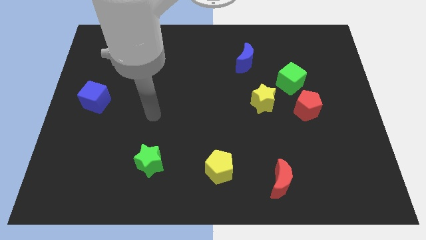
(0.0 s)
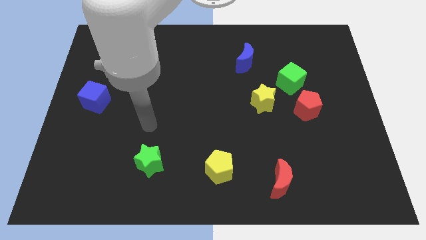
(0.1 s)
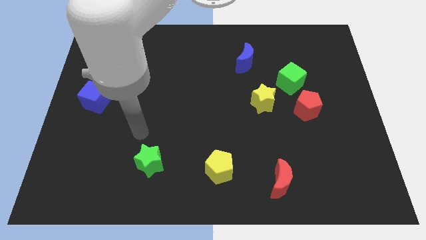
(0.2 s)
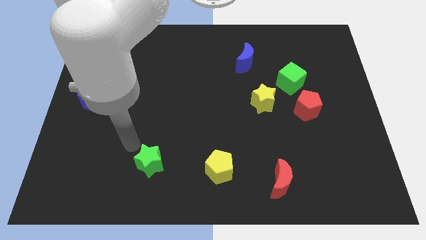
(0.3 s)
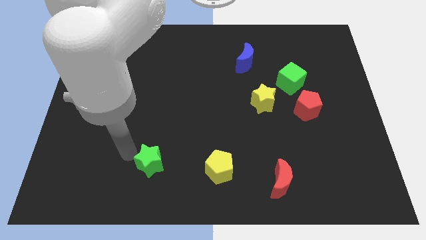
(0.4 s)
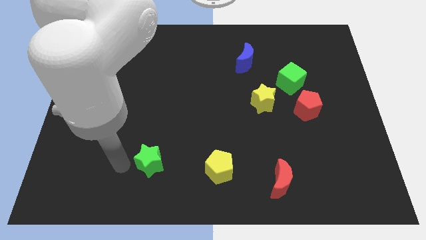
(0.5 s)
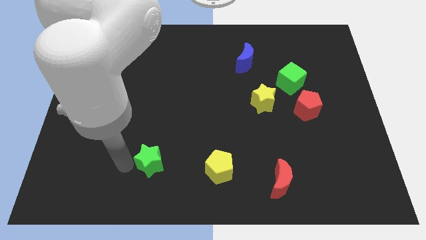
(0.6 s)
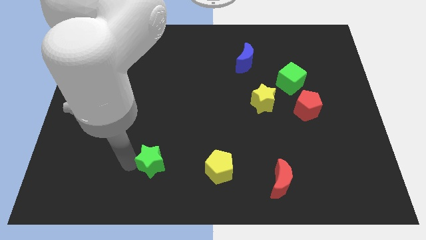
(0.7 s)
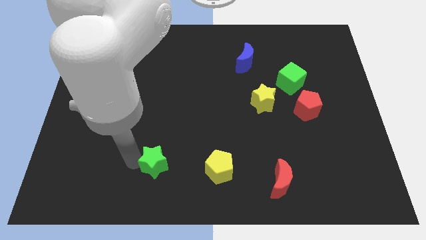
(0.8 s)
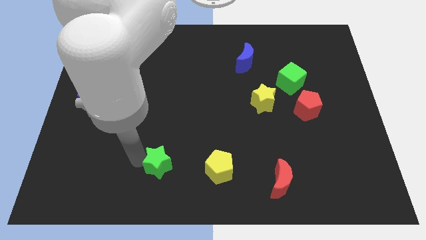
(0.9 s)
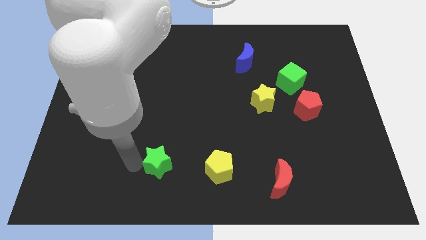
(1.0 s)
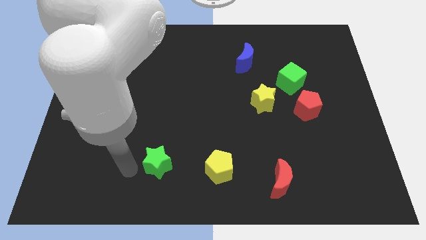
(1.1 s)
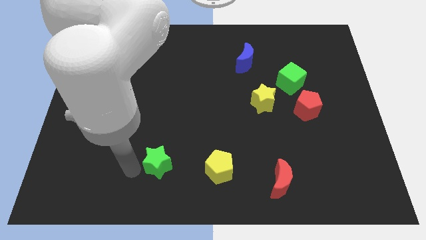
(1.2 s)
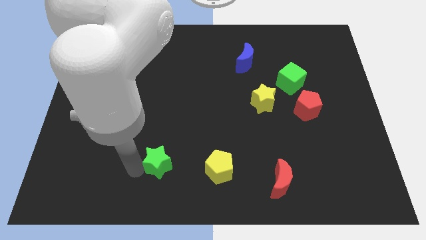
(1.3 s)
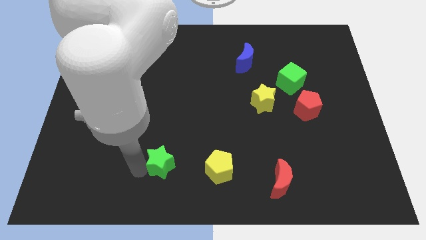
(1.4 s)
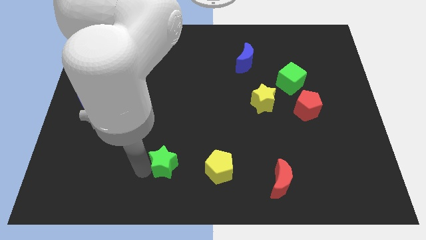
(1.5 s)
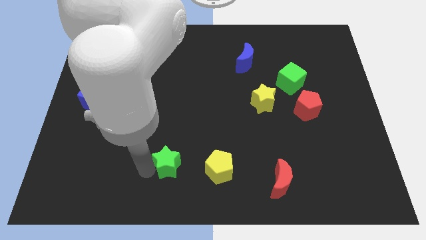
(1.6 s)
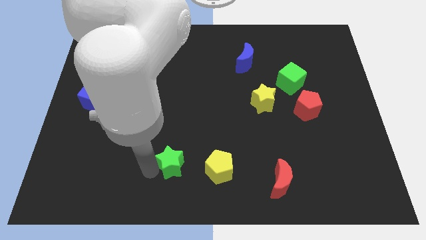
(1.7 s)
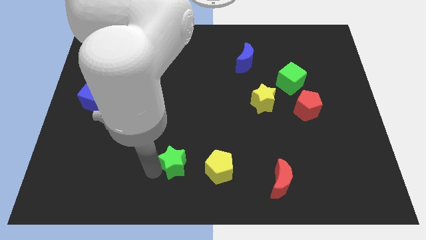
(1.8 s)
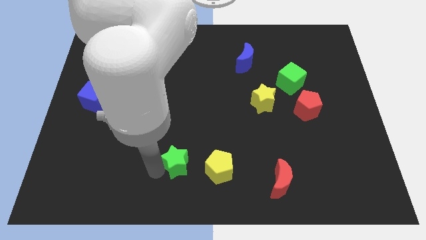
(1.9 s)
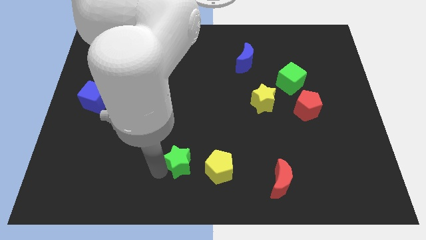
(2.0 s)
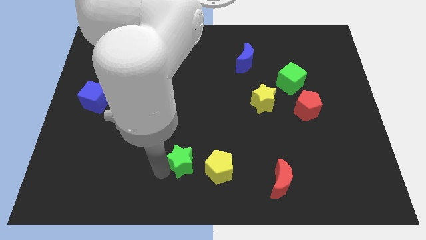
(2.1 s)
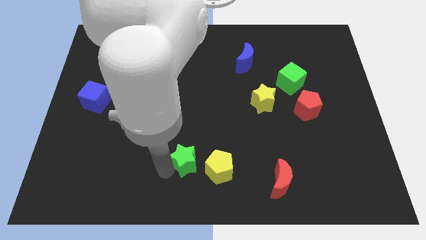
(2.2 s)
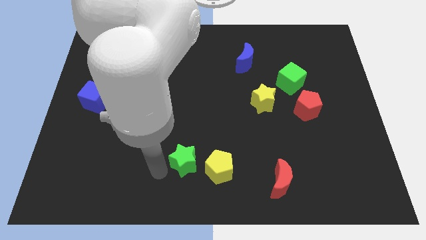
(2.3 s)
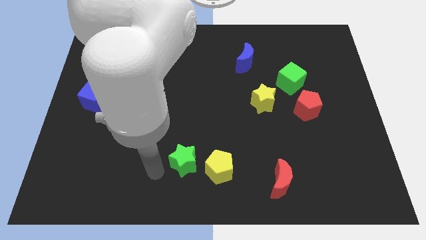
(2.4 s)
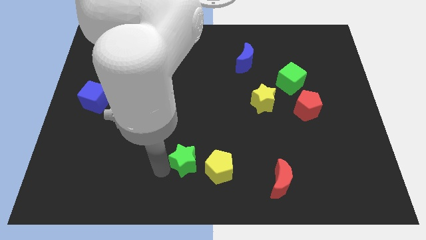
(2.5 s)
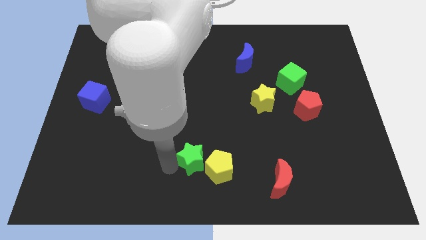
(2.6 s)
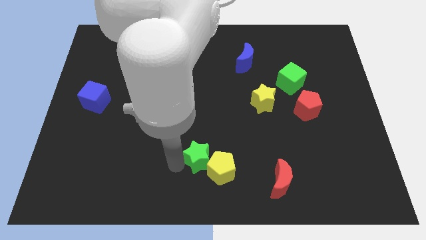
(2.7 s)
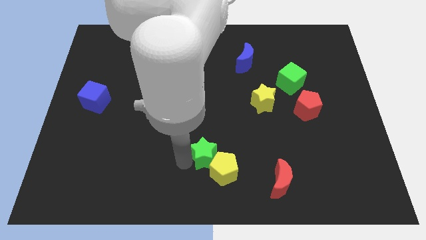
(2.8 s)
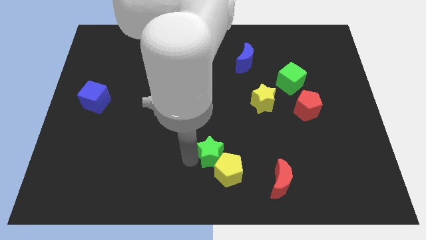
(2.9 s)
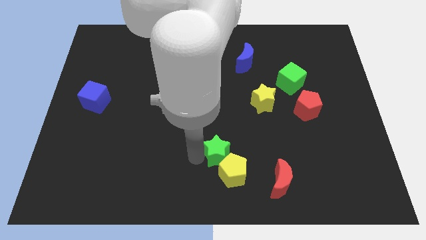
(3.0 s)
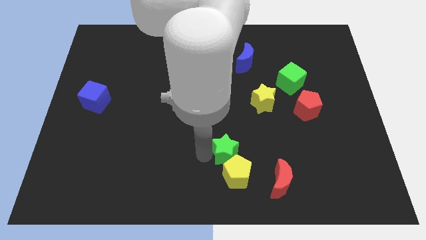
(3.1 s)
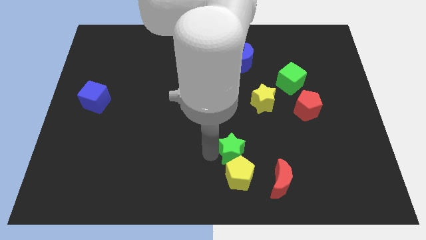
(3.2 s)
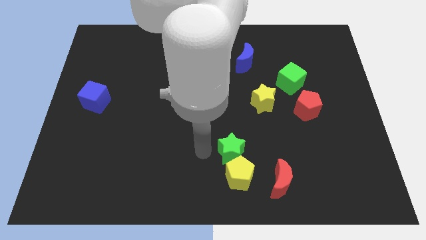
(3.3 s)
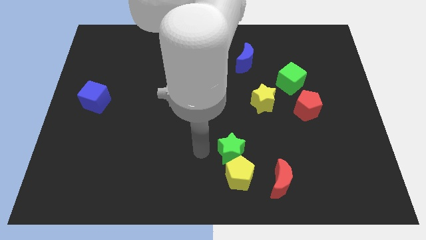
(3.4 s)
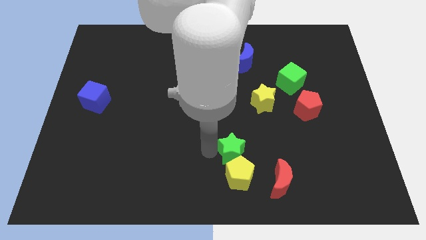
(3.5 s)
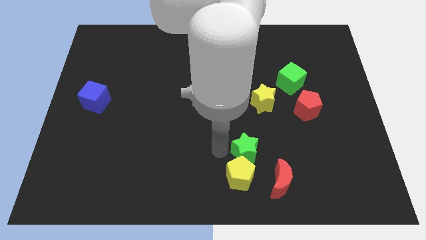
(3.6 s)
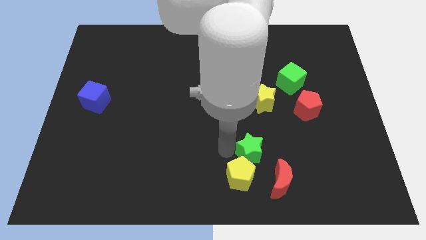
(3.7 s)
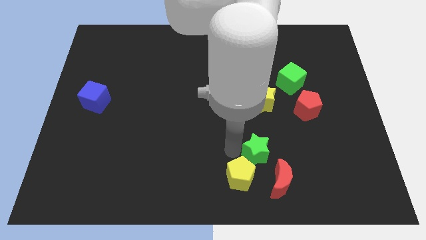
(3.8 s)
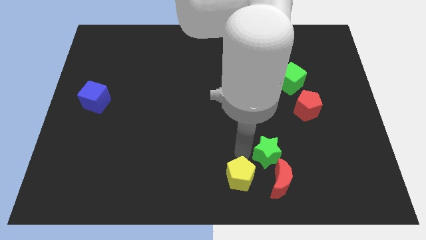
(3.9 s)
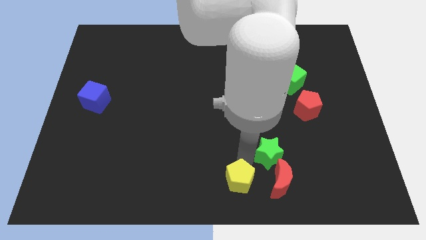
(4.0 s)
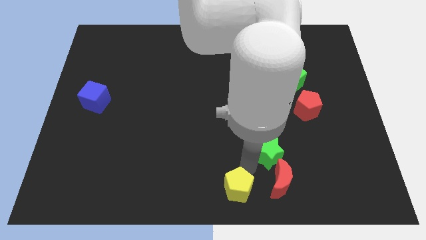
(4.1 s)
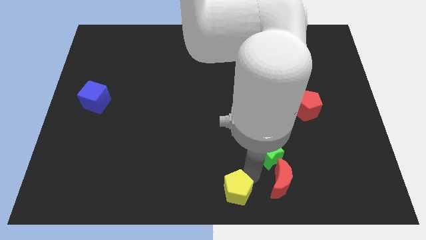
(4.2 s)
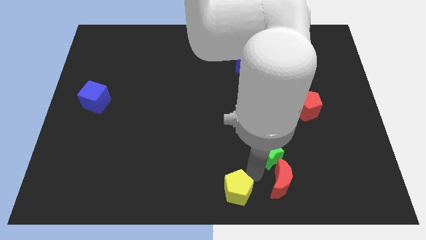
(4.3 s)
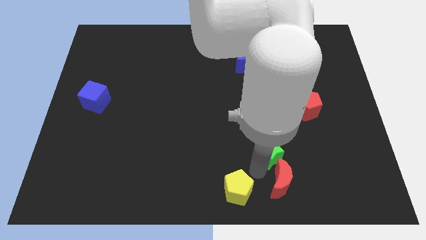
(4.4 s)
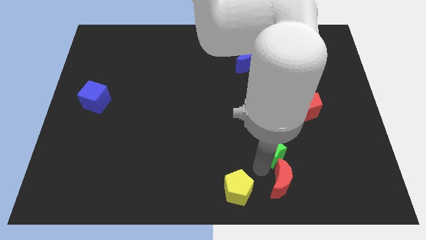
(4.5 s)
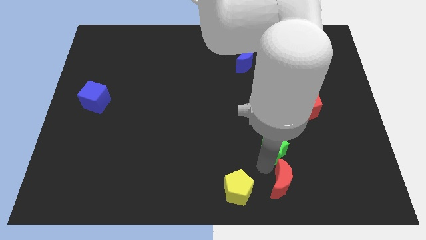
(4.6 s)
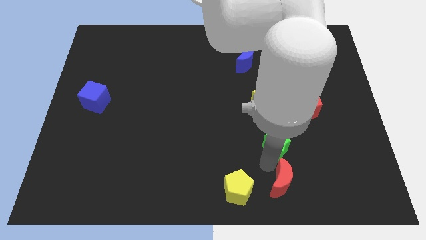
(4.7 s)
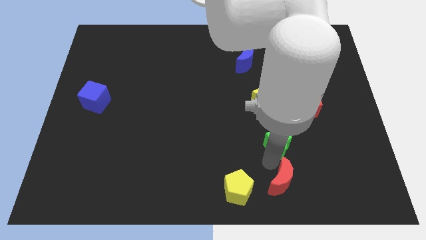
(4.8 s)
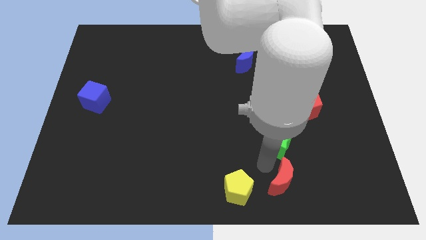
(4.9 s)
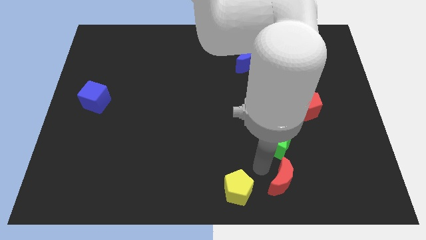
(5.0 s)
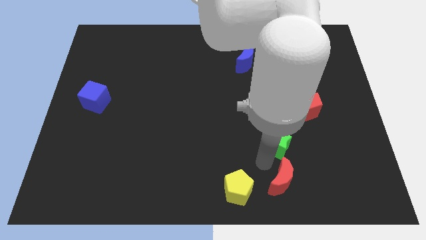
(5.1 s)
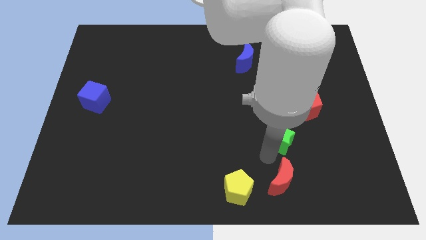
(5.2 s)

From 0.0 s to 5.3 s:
push the green star diagonally down and to the left of the red pentagon

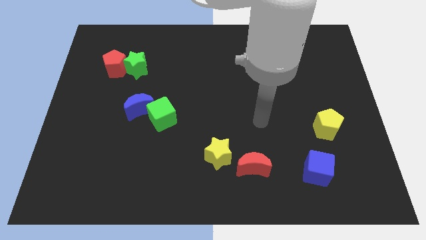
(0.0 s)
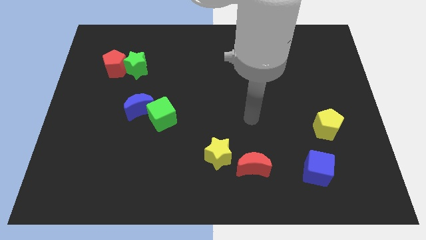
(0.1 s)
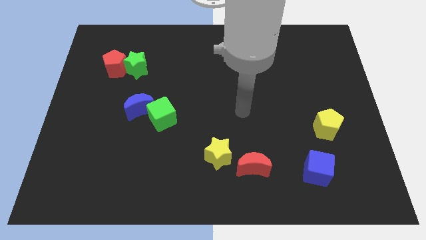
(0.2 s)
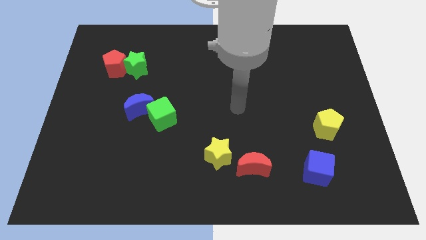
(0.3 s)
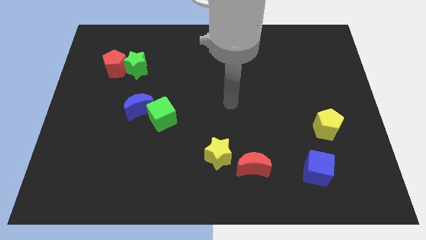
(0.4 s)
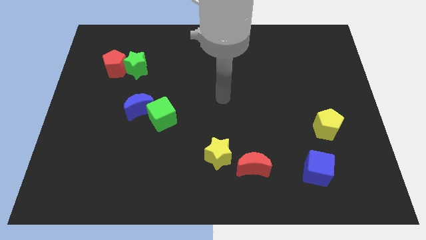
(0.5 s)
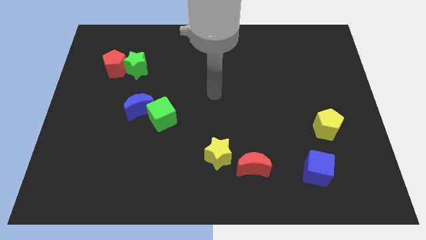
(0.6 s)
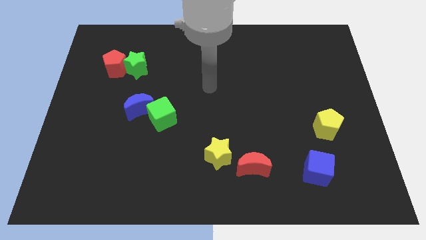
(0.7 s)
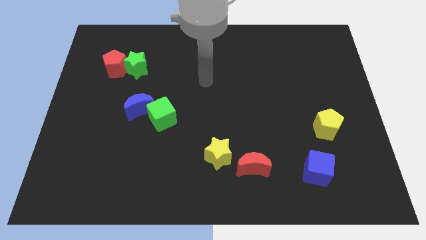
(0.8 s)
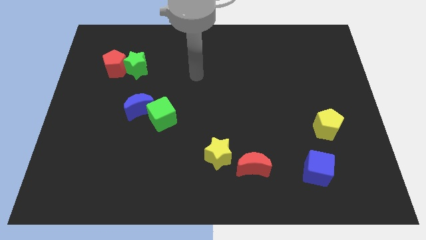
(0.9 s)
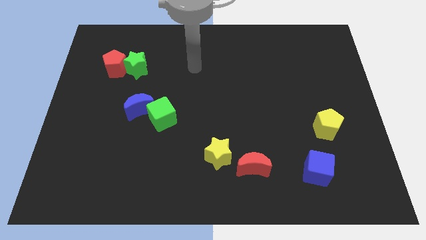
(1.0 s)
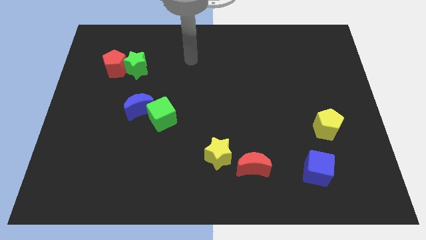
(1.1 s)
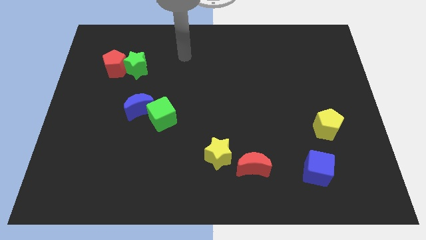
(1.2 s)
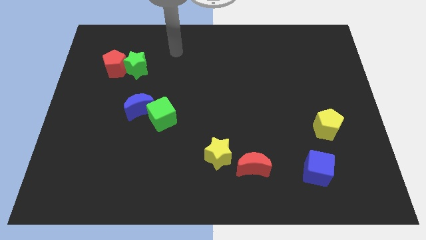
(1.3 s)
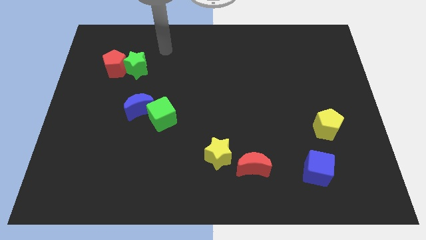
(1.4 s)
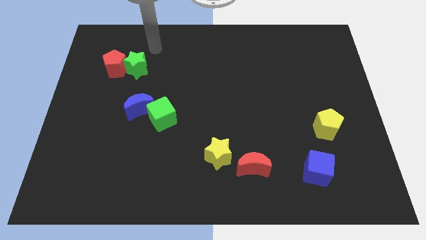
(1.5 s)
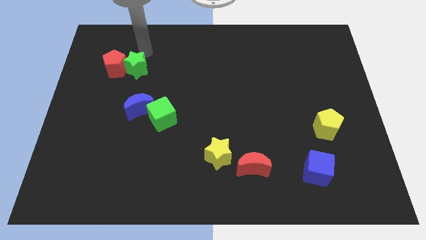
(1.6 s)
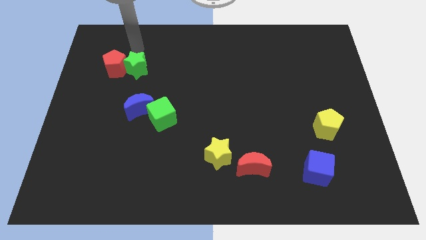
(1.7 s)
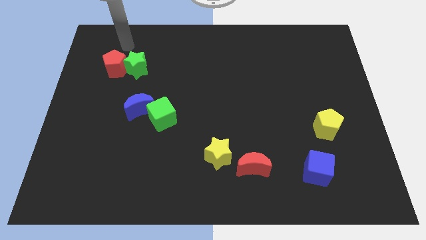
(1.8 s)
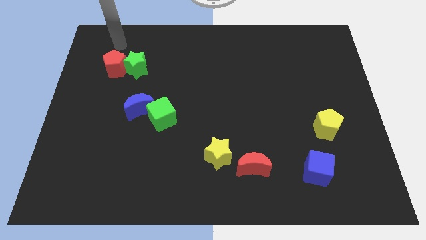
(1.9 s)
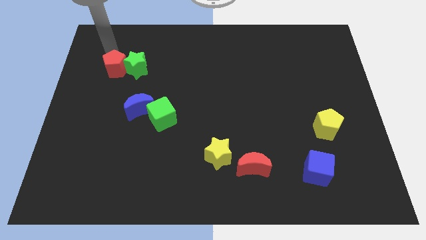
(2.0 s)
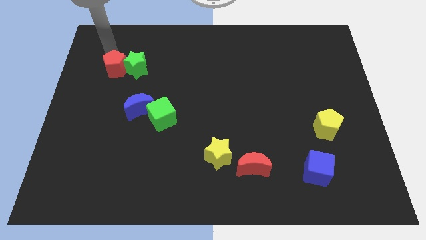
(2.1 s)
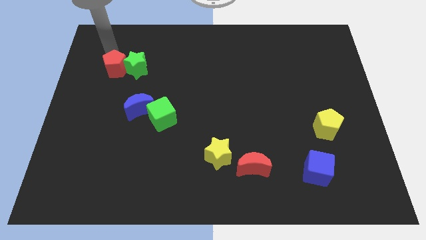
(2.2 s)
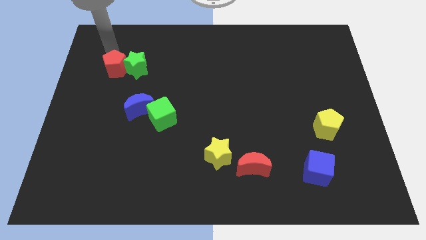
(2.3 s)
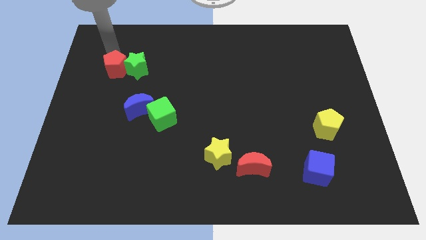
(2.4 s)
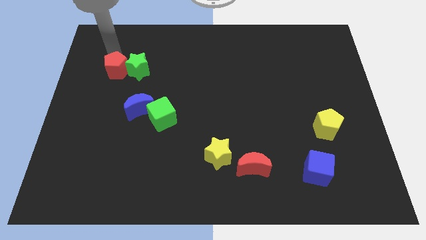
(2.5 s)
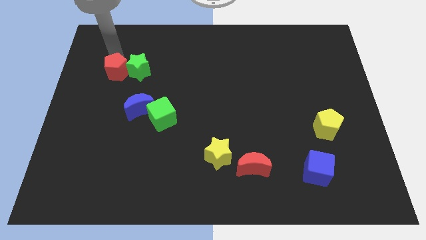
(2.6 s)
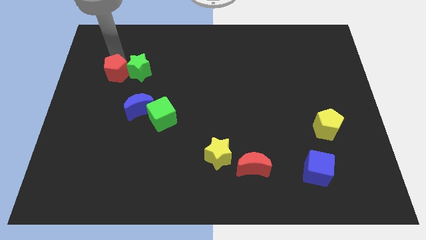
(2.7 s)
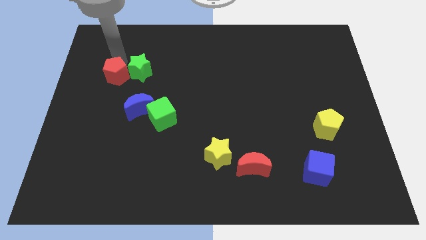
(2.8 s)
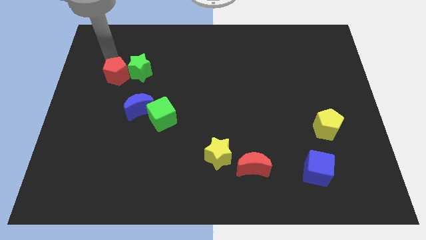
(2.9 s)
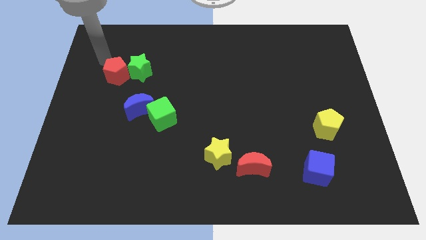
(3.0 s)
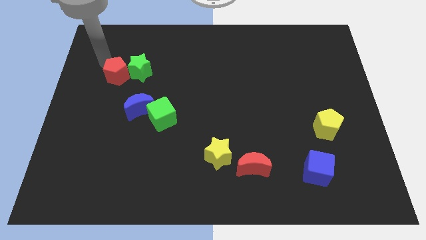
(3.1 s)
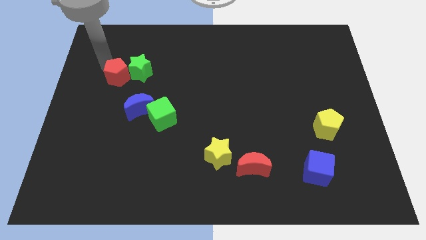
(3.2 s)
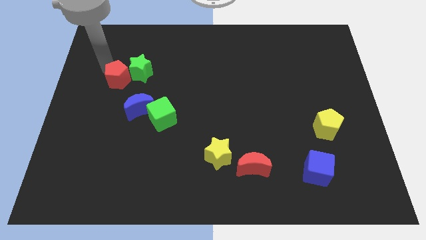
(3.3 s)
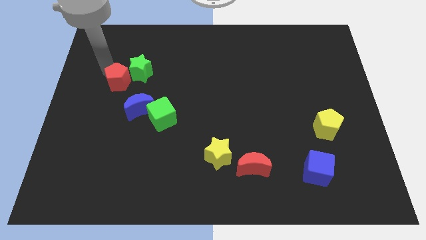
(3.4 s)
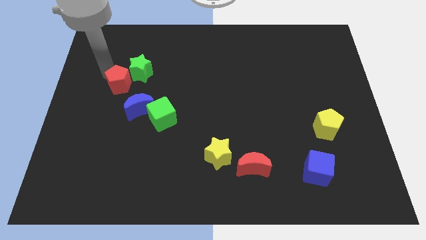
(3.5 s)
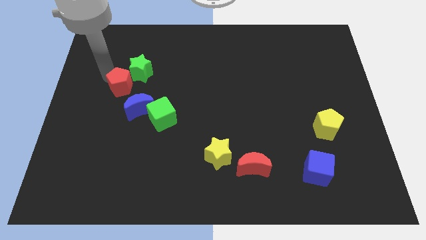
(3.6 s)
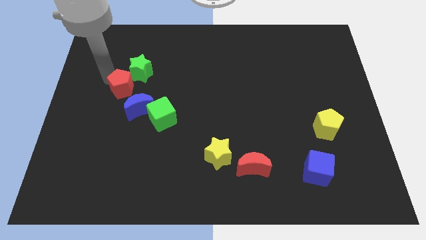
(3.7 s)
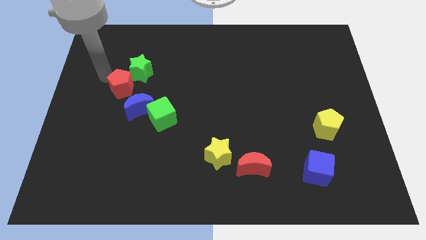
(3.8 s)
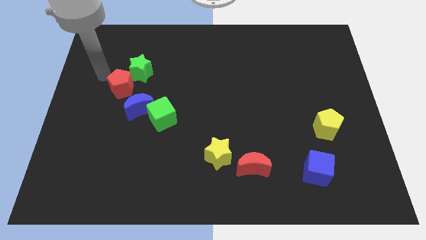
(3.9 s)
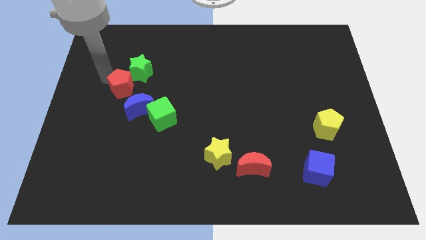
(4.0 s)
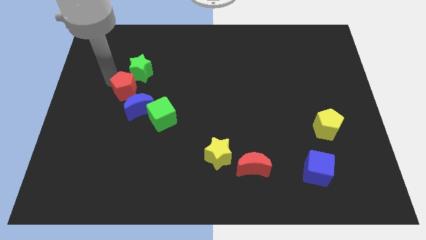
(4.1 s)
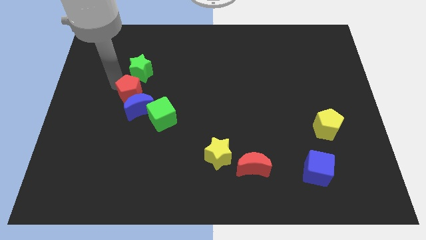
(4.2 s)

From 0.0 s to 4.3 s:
put the red pentagon to the top left of the green cube
